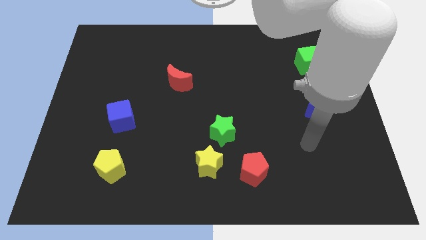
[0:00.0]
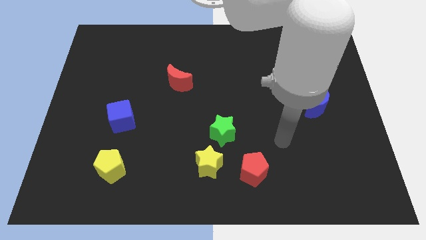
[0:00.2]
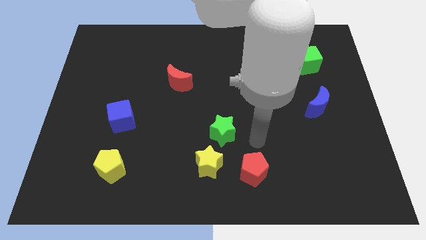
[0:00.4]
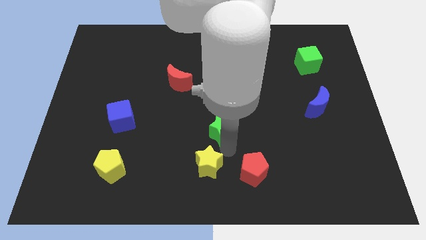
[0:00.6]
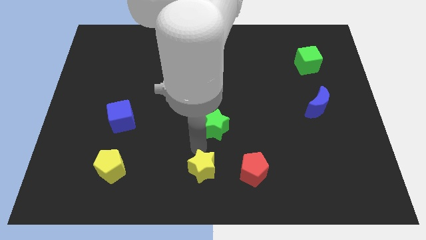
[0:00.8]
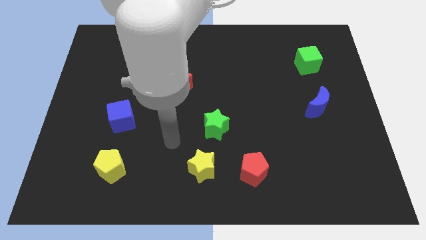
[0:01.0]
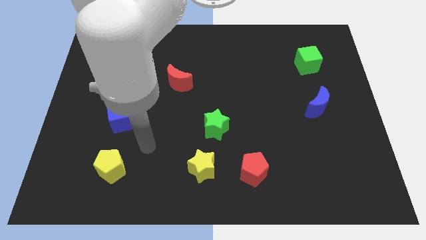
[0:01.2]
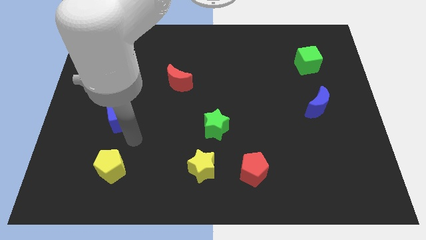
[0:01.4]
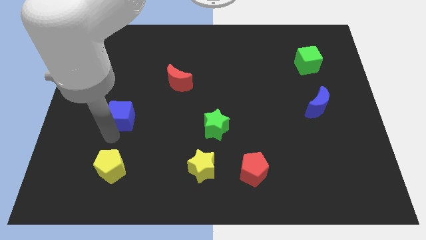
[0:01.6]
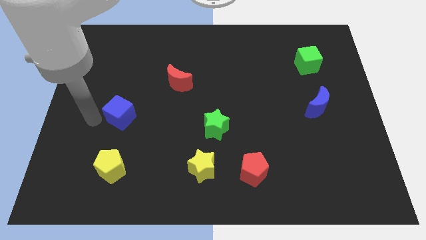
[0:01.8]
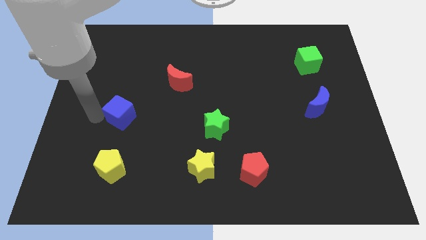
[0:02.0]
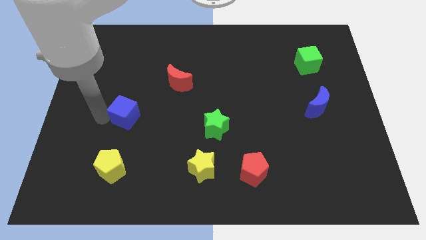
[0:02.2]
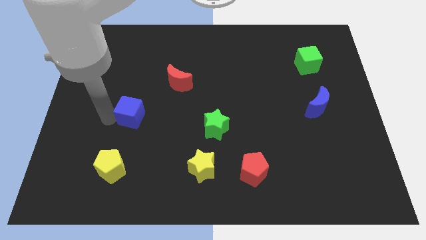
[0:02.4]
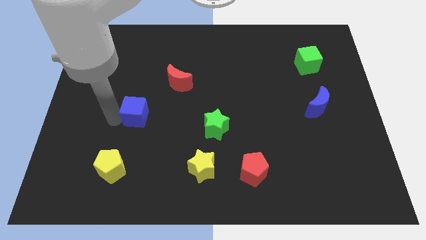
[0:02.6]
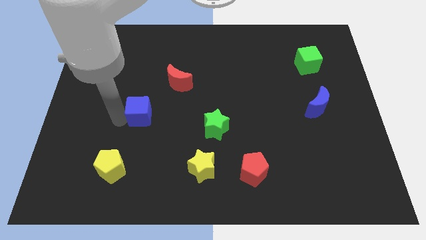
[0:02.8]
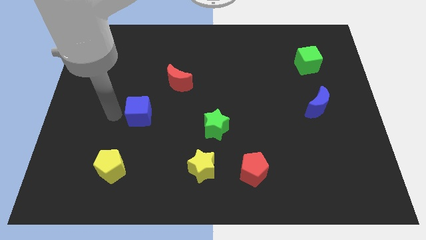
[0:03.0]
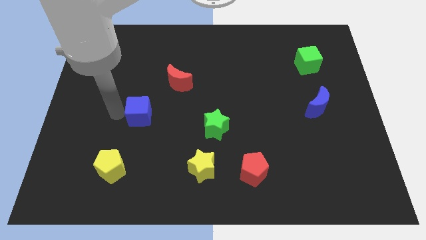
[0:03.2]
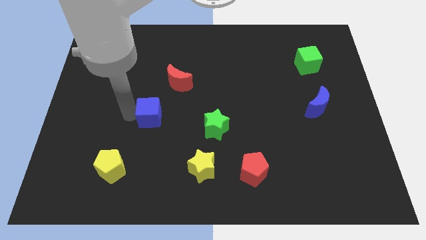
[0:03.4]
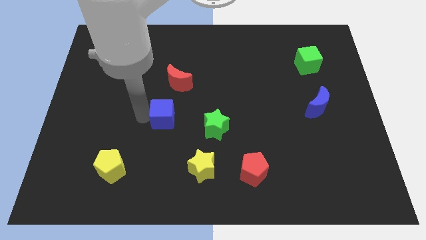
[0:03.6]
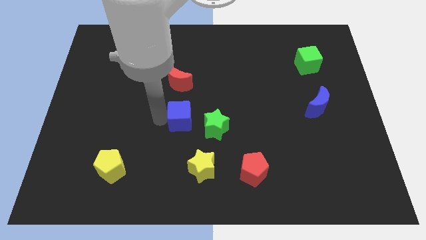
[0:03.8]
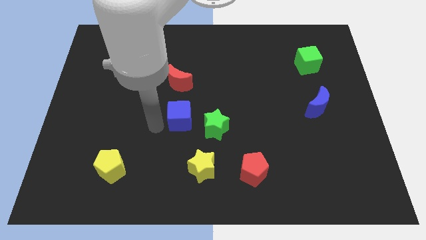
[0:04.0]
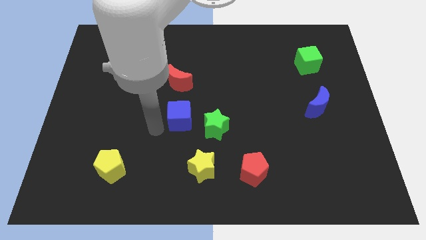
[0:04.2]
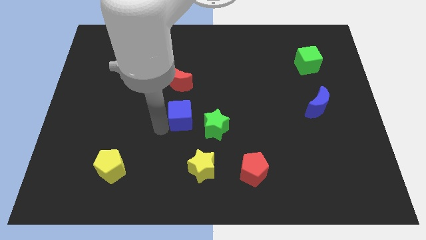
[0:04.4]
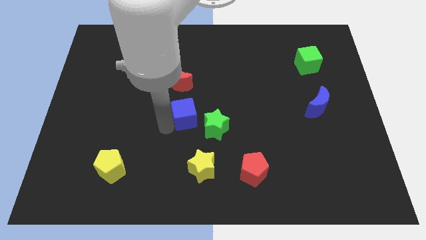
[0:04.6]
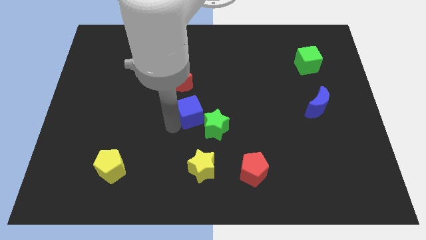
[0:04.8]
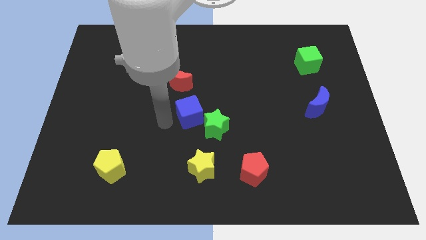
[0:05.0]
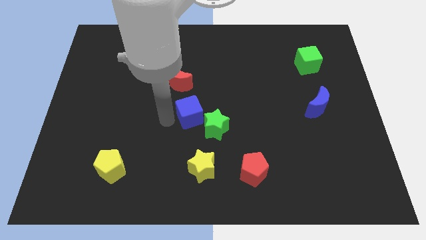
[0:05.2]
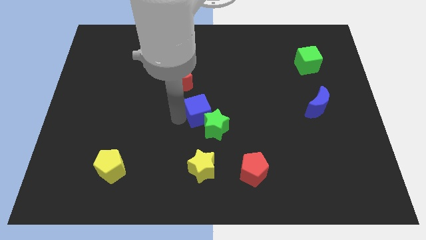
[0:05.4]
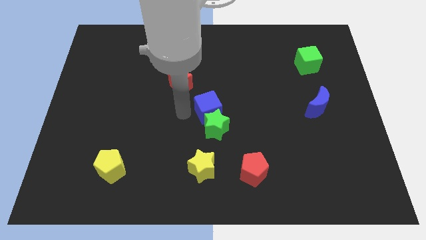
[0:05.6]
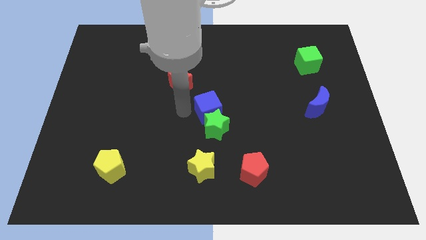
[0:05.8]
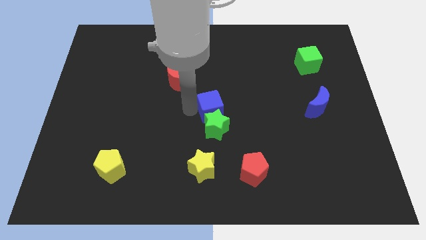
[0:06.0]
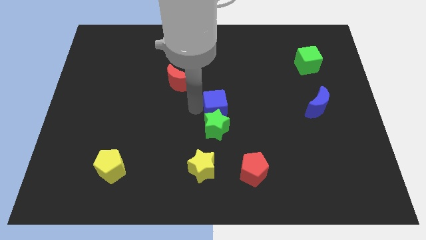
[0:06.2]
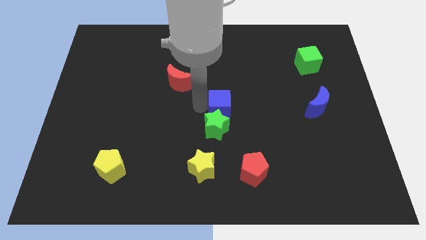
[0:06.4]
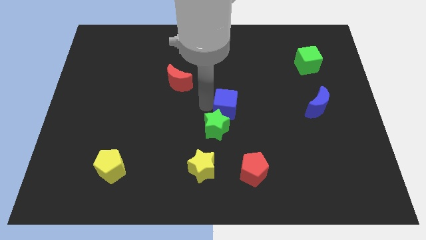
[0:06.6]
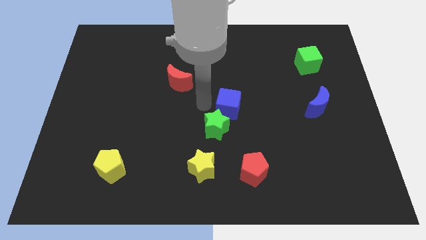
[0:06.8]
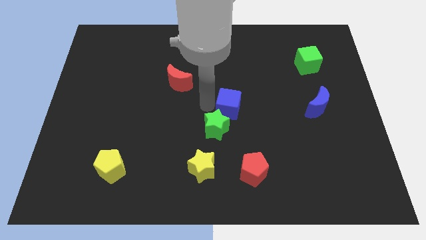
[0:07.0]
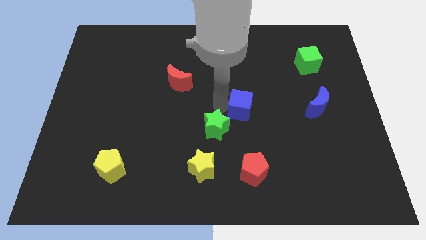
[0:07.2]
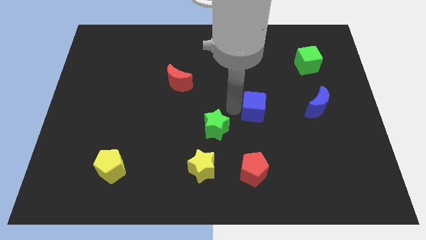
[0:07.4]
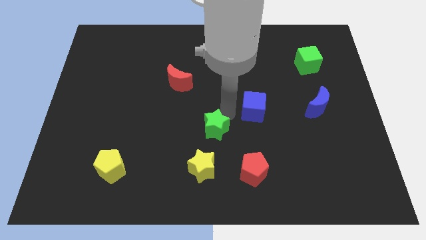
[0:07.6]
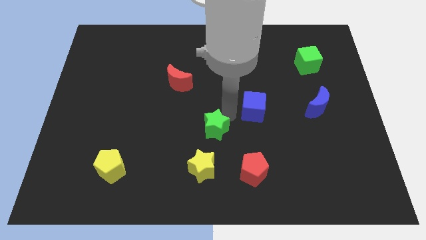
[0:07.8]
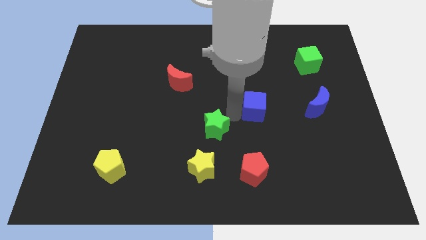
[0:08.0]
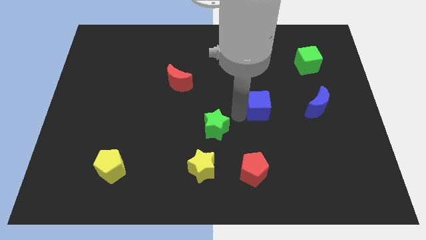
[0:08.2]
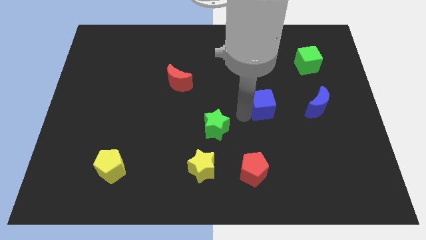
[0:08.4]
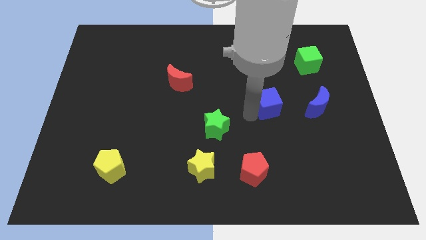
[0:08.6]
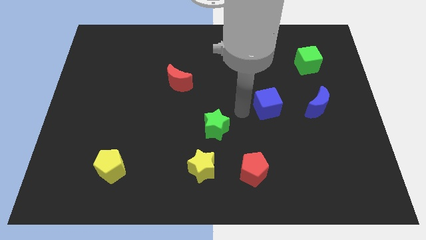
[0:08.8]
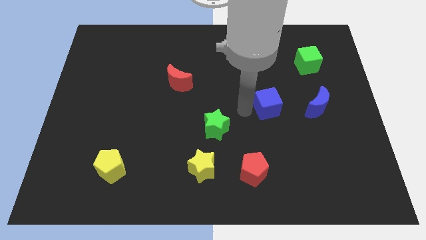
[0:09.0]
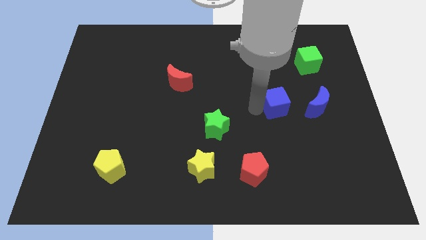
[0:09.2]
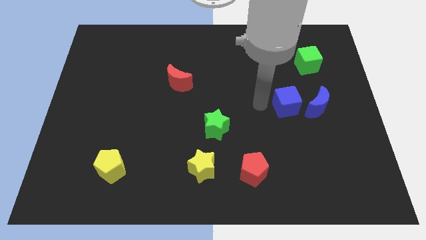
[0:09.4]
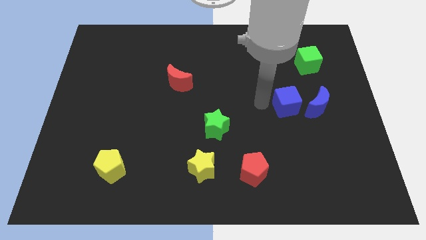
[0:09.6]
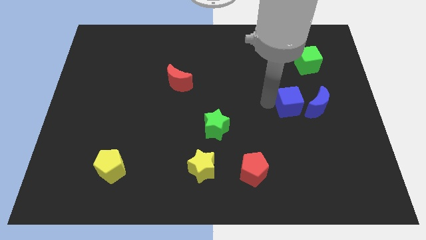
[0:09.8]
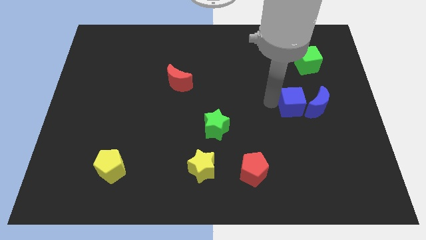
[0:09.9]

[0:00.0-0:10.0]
move the blue cube next to the blue moon

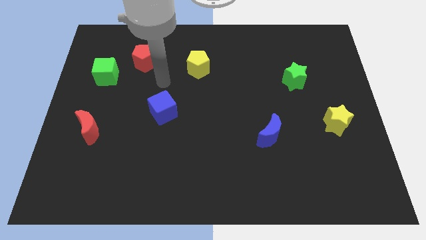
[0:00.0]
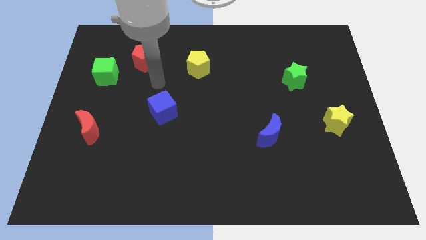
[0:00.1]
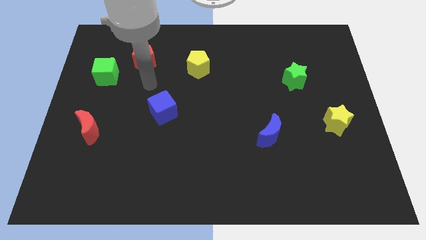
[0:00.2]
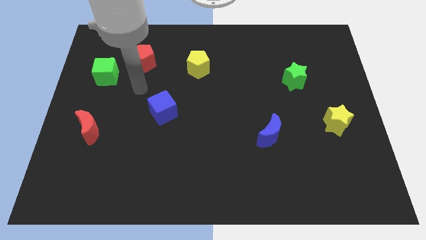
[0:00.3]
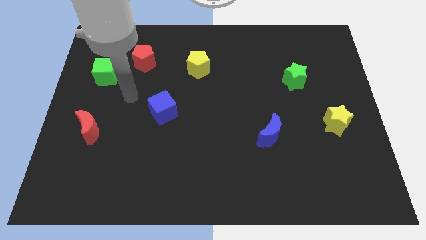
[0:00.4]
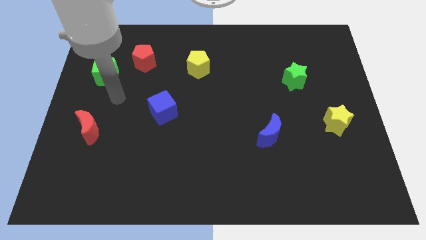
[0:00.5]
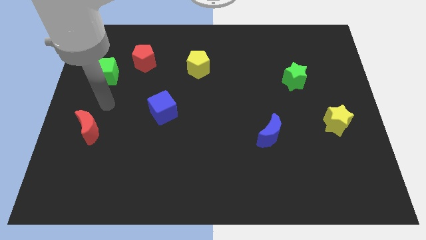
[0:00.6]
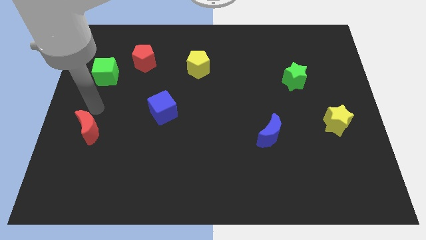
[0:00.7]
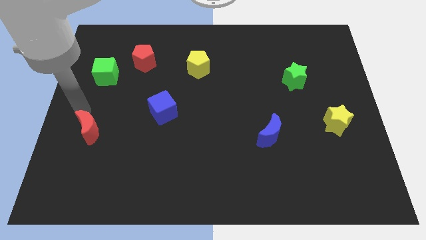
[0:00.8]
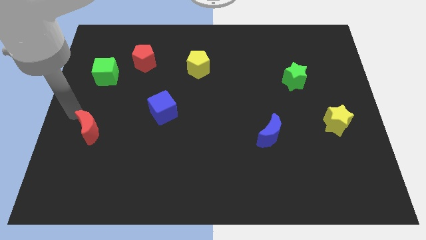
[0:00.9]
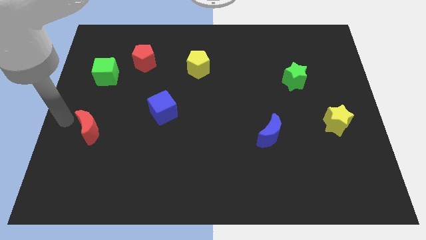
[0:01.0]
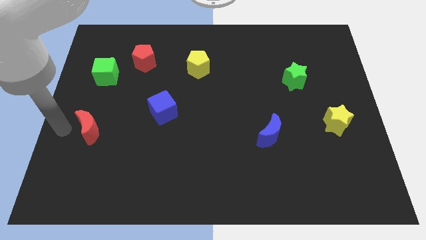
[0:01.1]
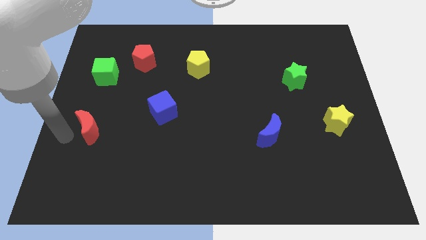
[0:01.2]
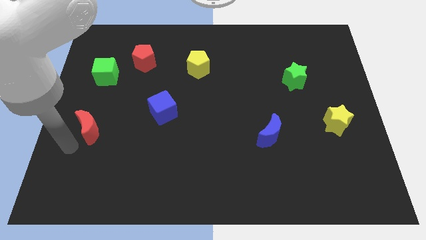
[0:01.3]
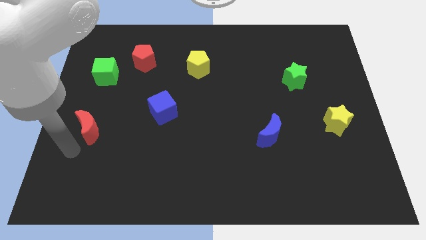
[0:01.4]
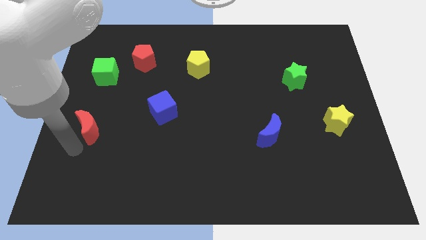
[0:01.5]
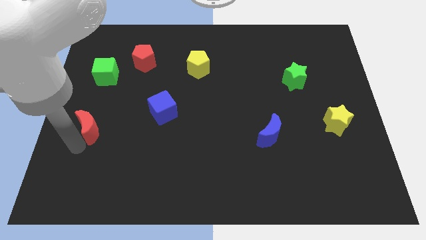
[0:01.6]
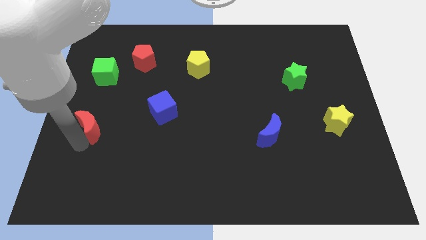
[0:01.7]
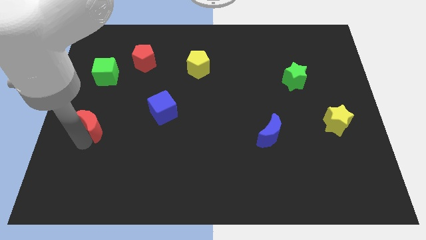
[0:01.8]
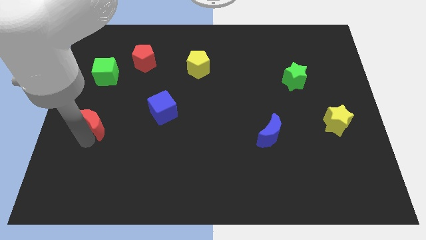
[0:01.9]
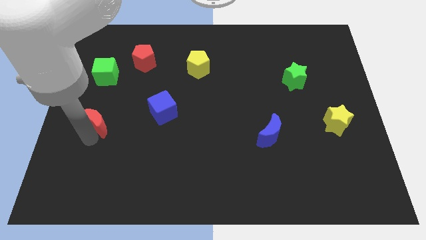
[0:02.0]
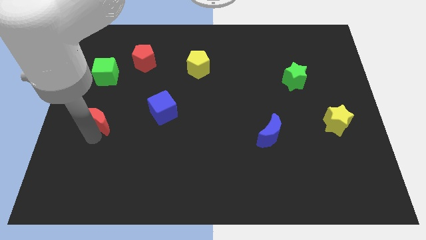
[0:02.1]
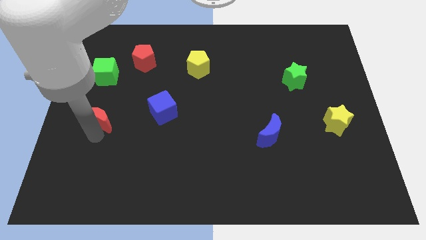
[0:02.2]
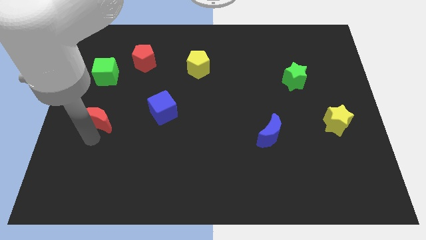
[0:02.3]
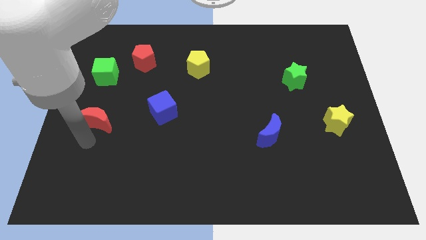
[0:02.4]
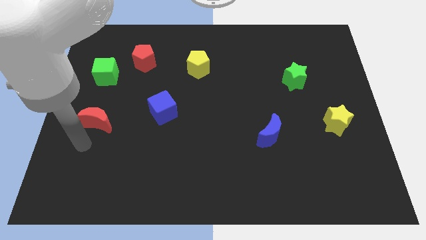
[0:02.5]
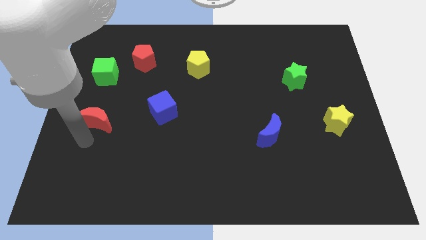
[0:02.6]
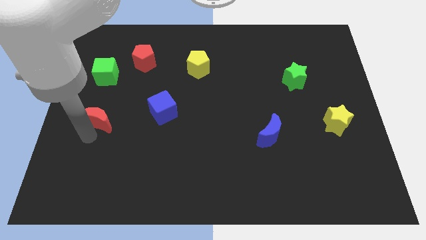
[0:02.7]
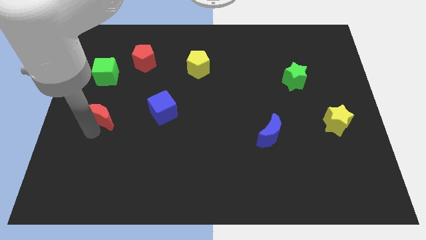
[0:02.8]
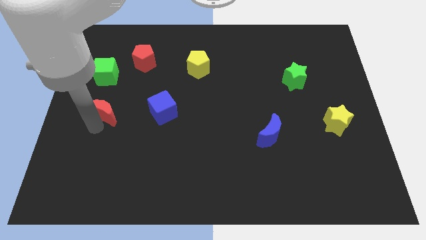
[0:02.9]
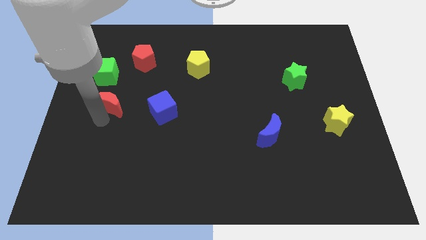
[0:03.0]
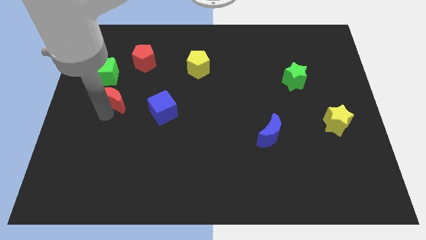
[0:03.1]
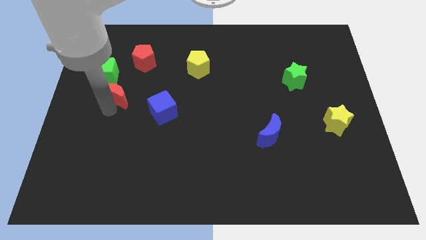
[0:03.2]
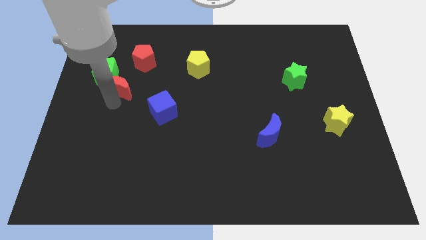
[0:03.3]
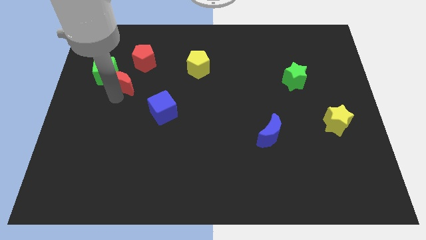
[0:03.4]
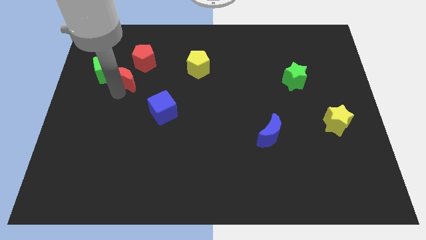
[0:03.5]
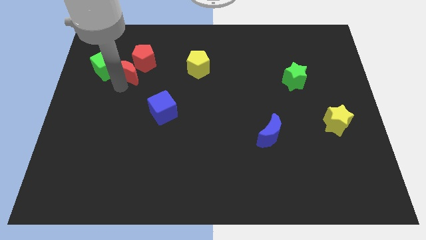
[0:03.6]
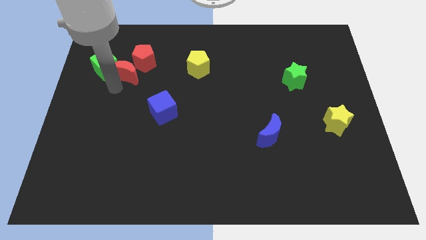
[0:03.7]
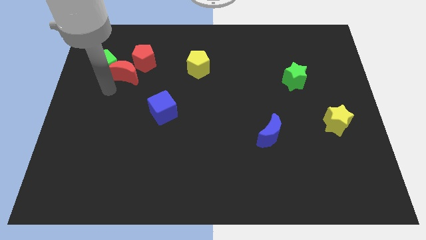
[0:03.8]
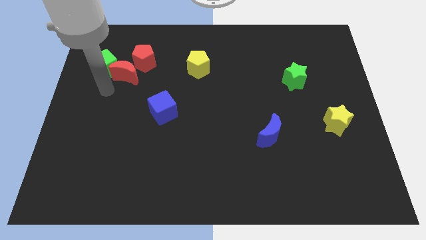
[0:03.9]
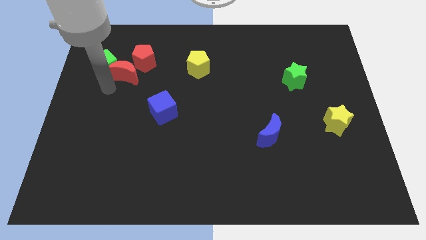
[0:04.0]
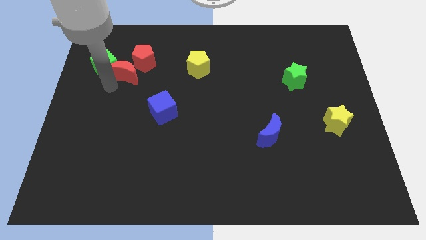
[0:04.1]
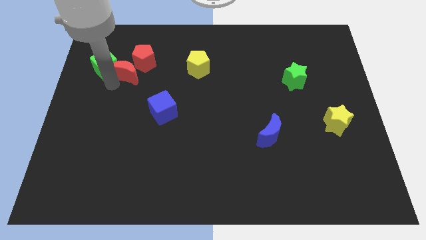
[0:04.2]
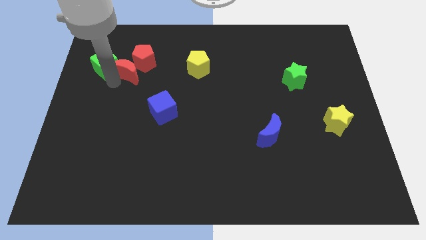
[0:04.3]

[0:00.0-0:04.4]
put the red moon next to the red pentagon
